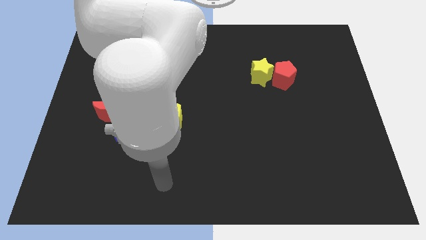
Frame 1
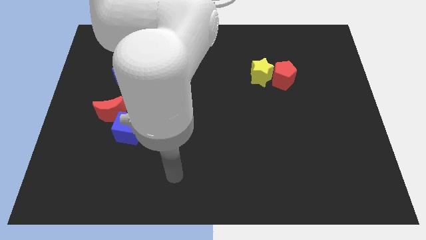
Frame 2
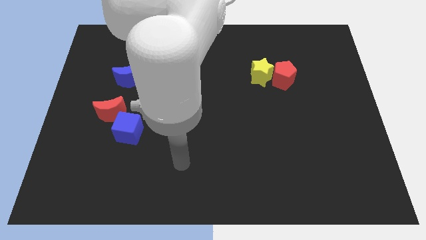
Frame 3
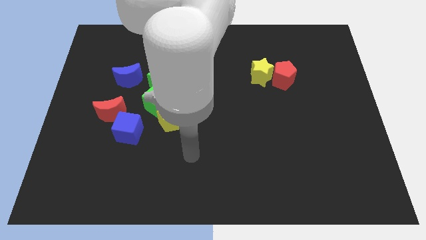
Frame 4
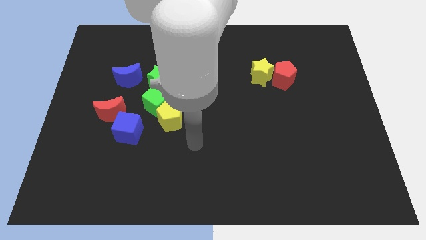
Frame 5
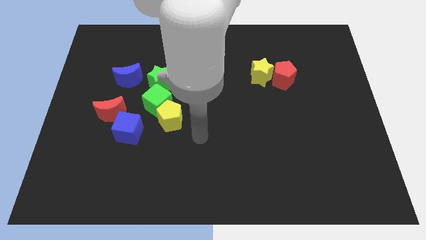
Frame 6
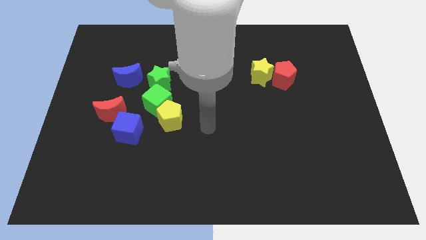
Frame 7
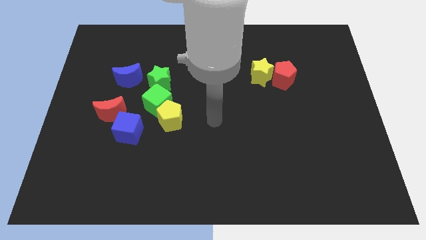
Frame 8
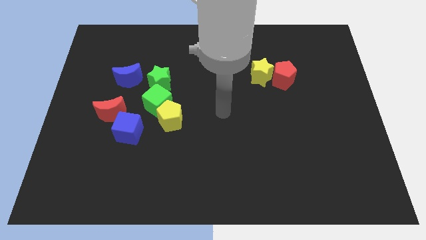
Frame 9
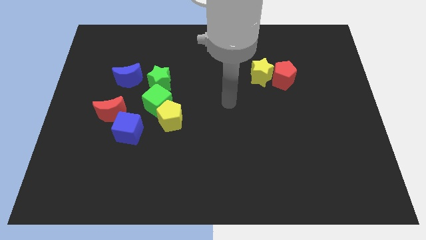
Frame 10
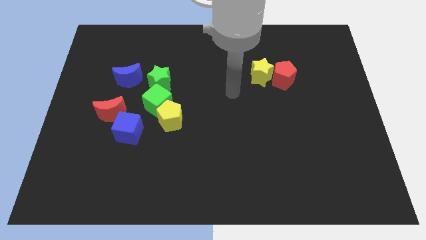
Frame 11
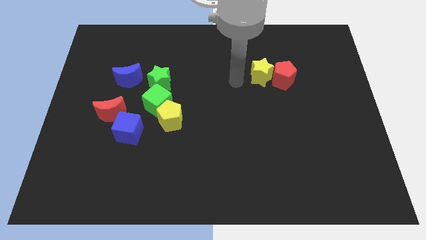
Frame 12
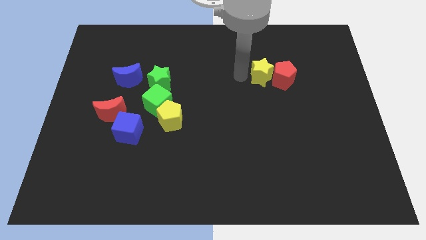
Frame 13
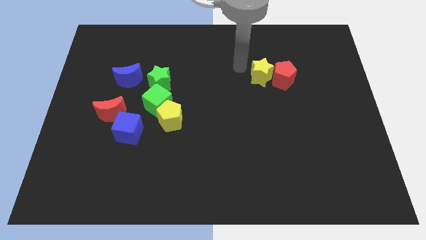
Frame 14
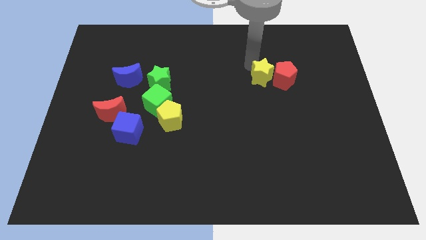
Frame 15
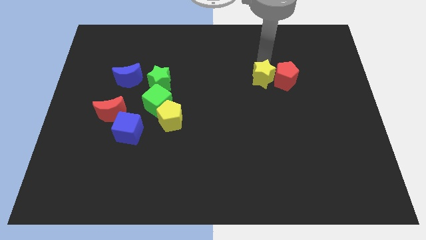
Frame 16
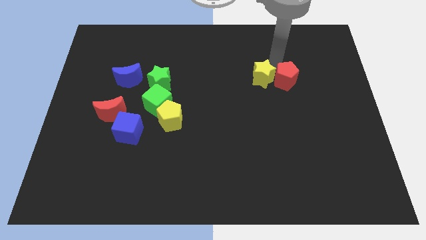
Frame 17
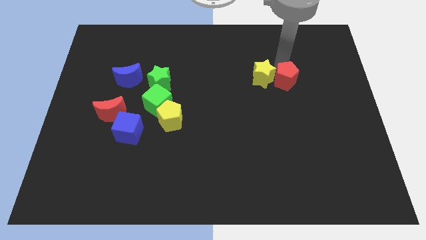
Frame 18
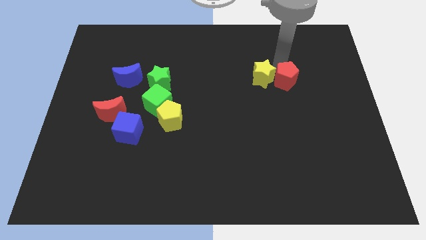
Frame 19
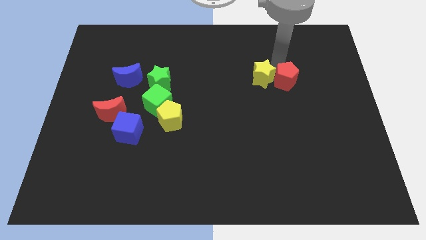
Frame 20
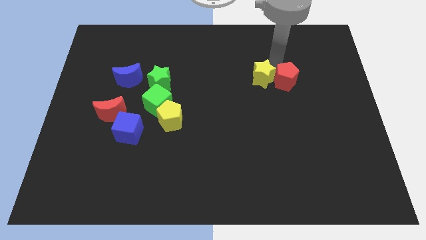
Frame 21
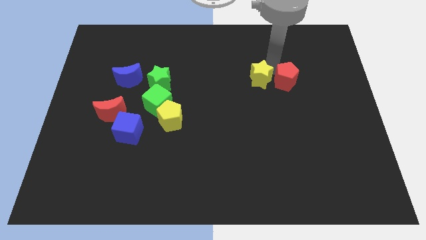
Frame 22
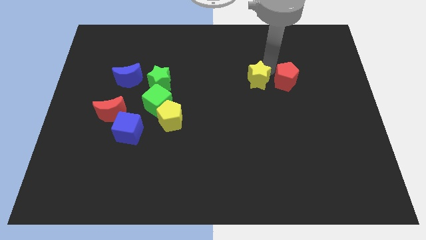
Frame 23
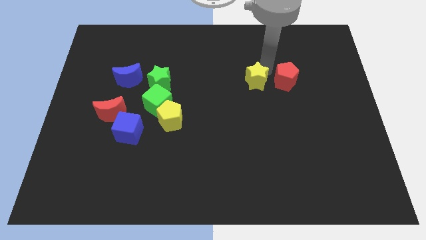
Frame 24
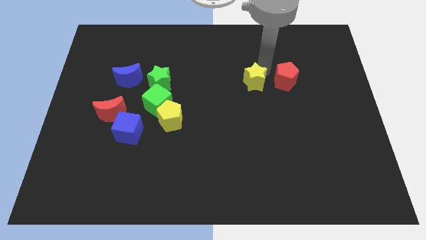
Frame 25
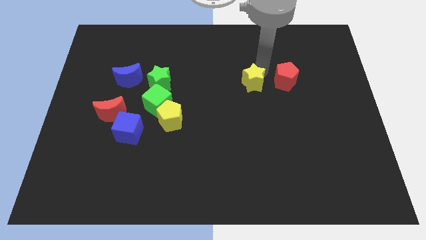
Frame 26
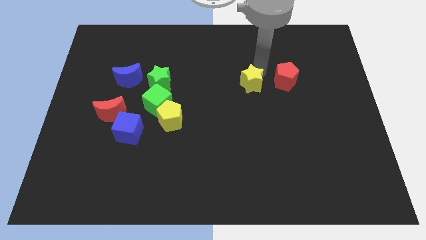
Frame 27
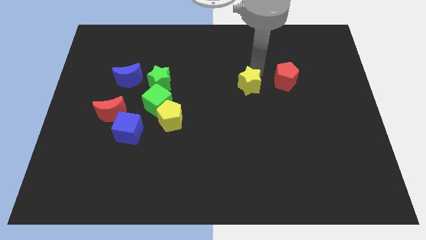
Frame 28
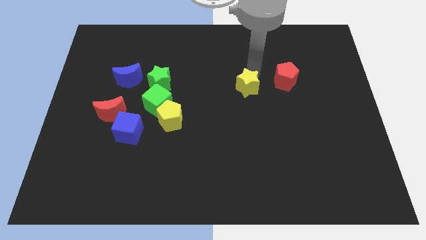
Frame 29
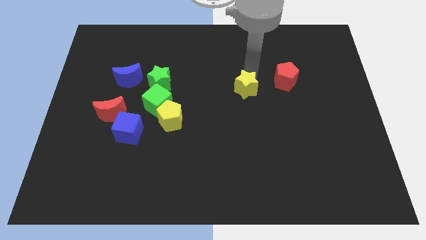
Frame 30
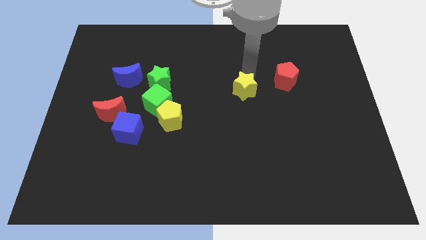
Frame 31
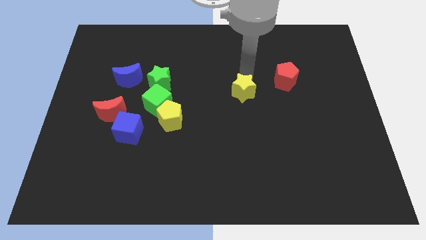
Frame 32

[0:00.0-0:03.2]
move the yellow star a little bit diagonally downwards and to the left

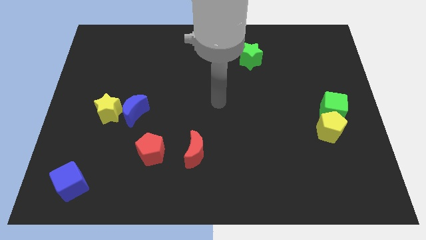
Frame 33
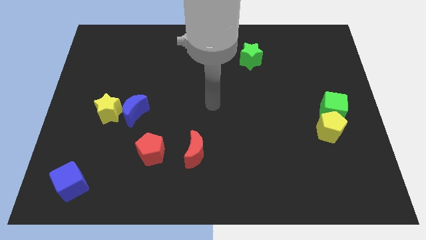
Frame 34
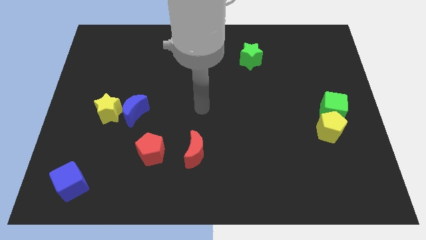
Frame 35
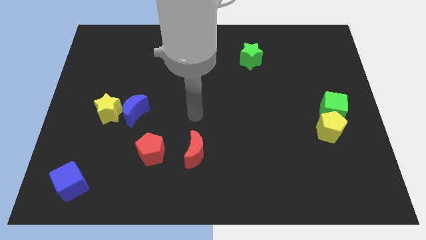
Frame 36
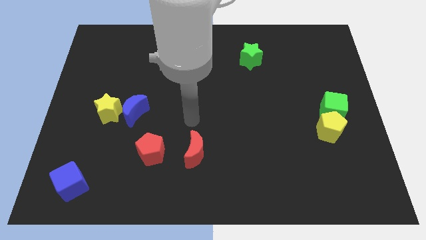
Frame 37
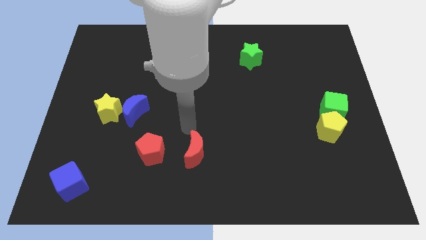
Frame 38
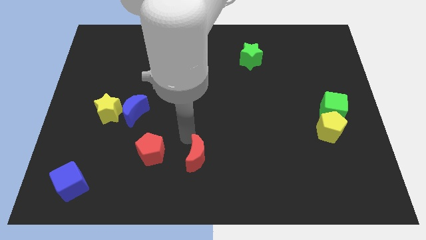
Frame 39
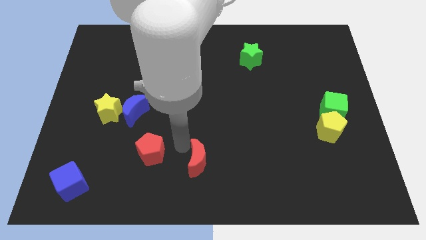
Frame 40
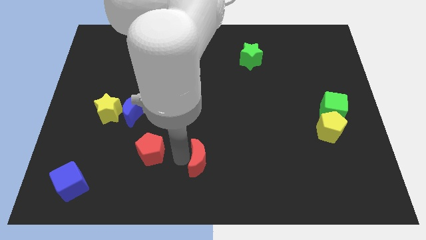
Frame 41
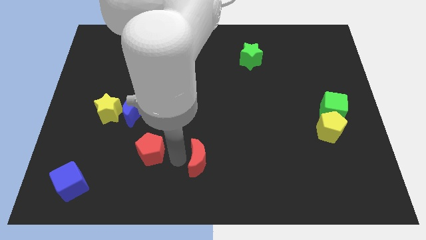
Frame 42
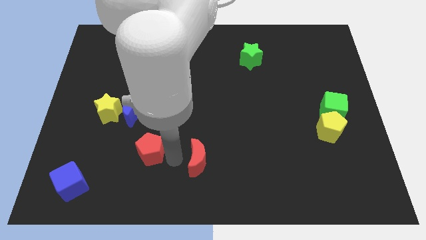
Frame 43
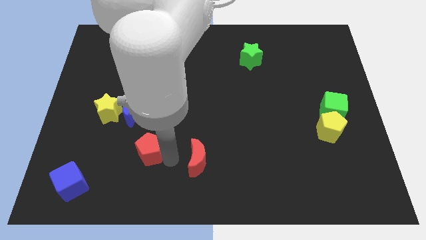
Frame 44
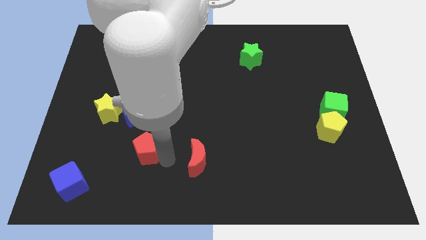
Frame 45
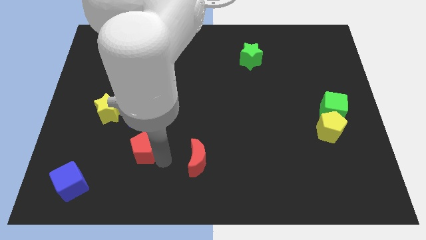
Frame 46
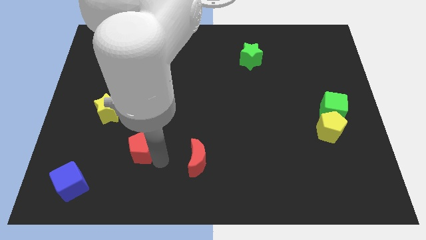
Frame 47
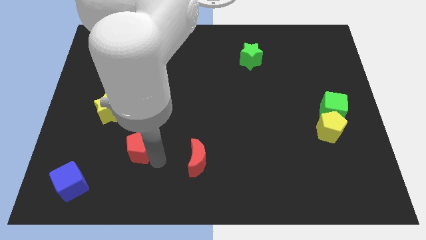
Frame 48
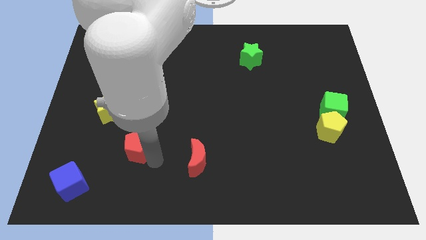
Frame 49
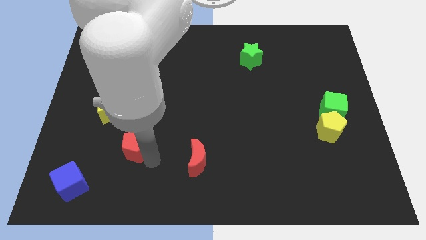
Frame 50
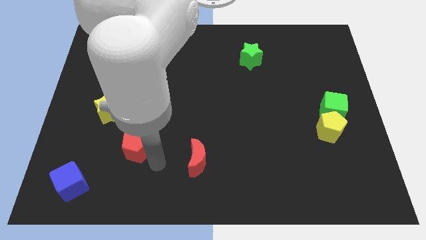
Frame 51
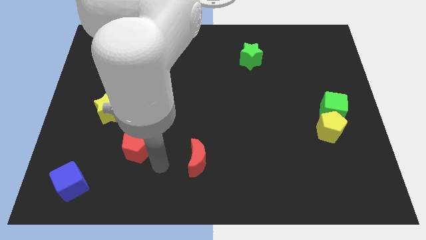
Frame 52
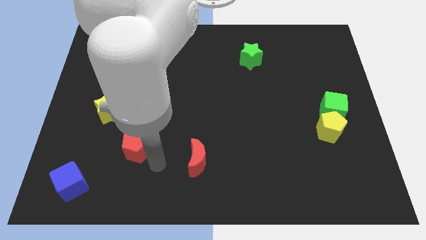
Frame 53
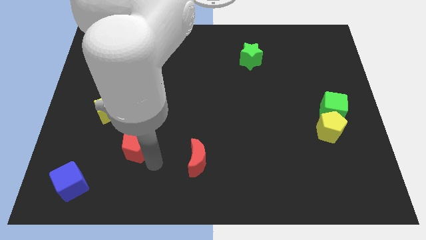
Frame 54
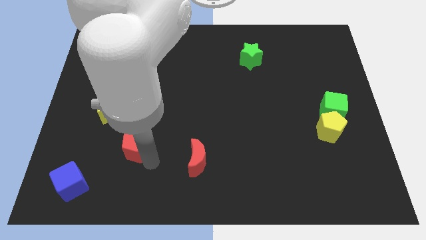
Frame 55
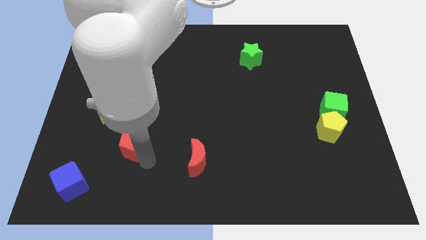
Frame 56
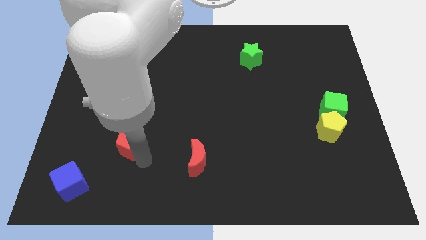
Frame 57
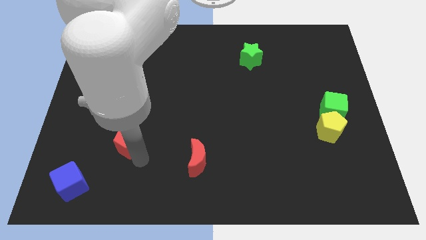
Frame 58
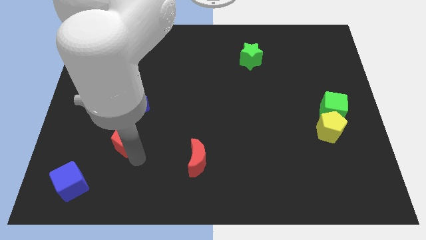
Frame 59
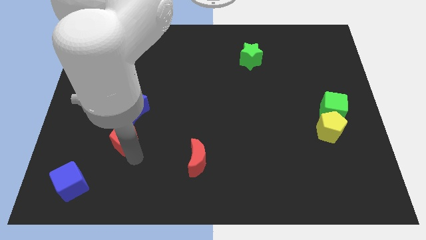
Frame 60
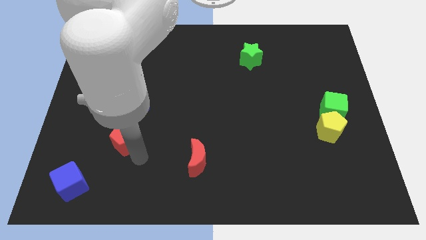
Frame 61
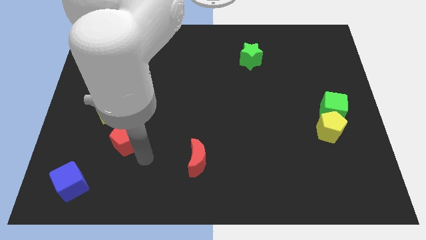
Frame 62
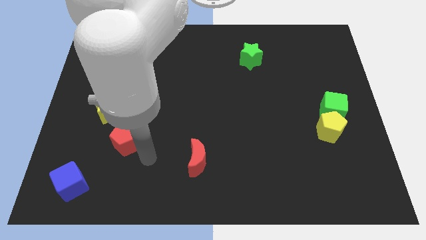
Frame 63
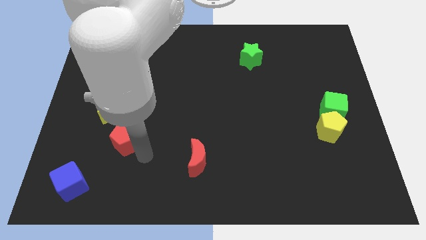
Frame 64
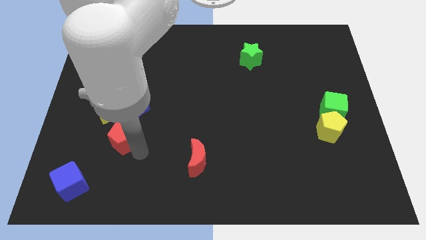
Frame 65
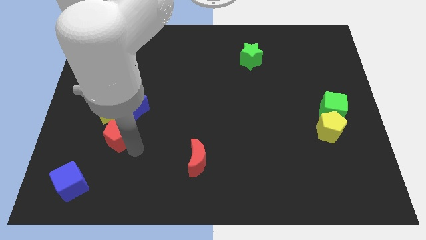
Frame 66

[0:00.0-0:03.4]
move the red pentagon a bit diagonally up and to the left

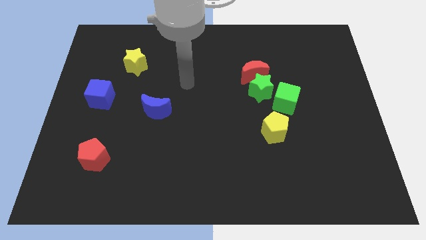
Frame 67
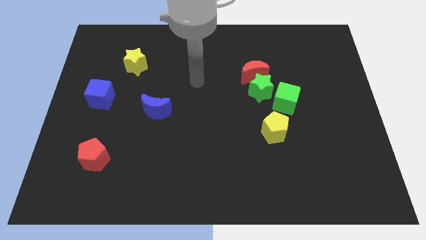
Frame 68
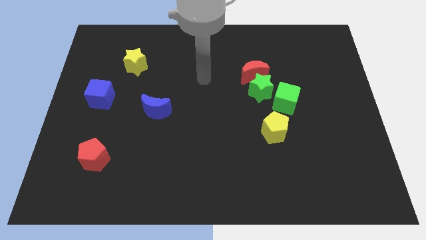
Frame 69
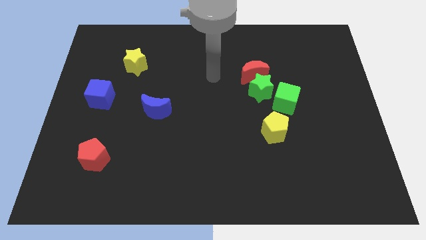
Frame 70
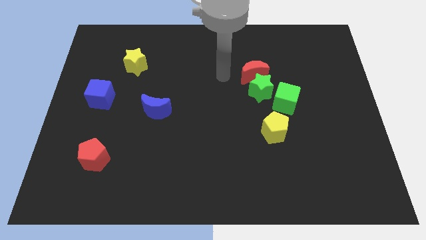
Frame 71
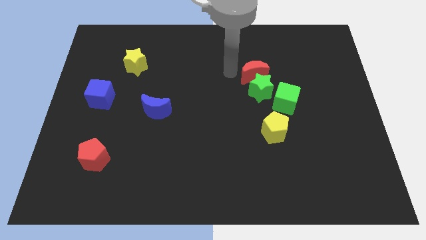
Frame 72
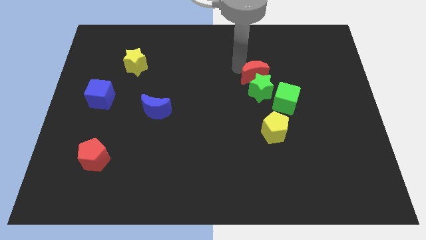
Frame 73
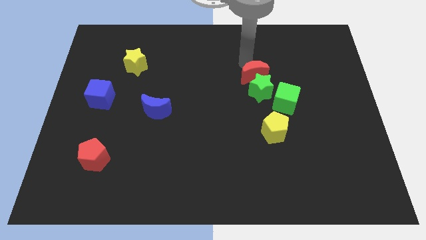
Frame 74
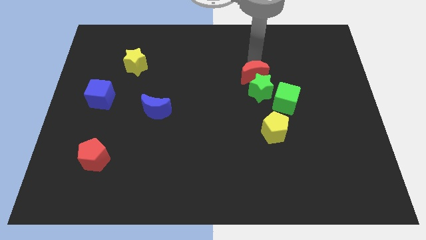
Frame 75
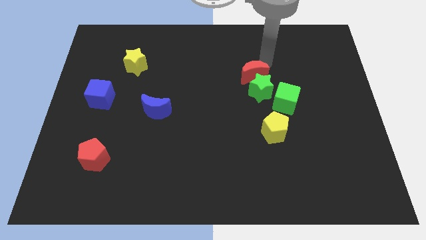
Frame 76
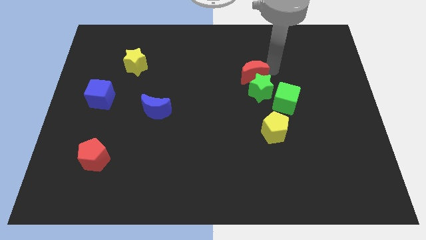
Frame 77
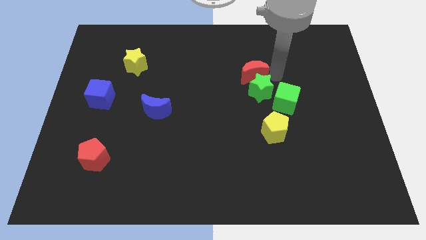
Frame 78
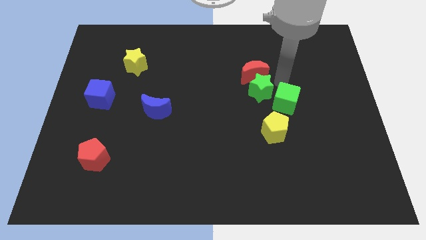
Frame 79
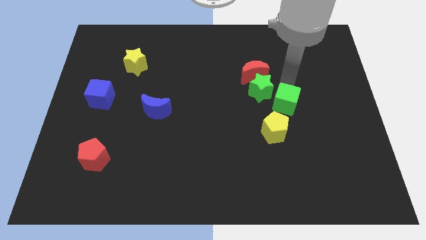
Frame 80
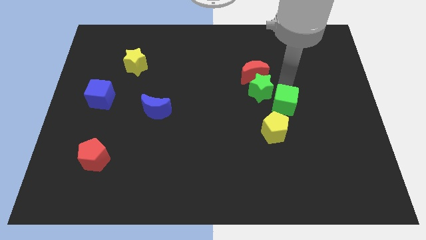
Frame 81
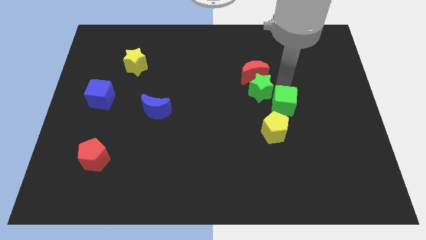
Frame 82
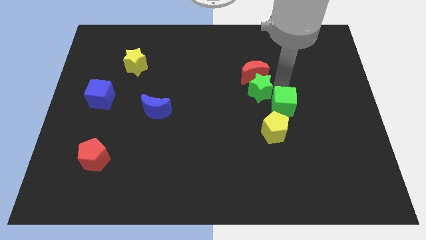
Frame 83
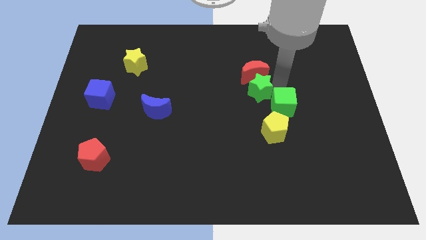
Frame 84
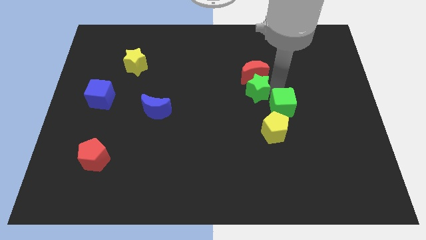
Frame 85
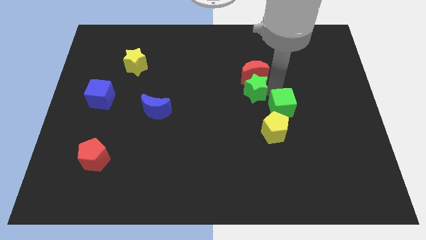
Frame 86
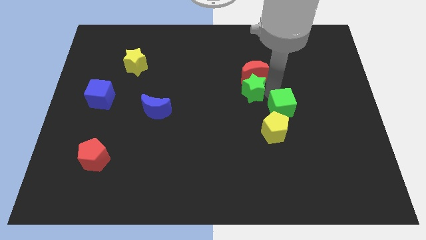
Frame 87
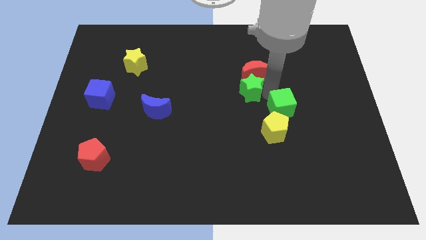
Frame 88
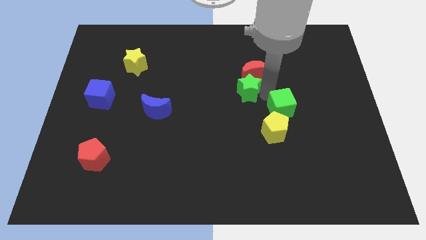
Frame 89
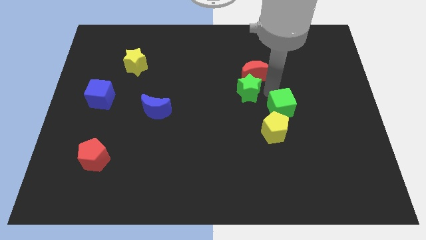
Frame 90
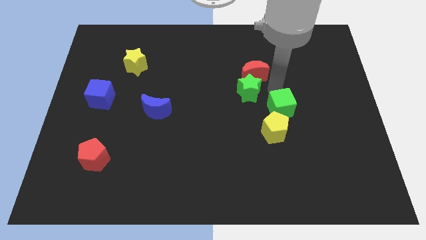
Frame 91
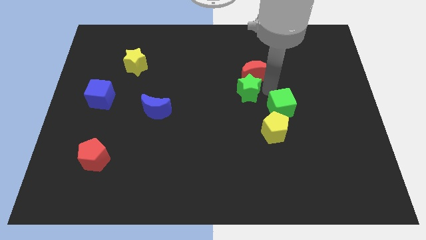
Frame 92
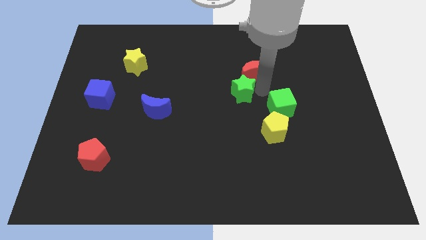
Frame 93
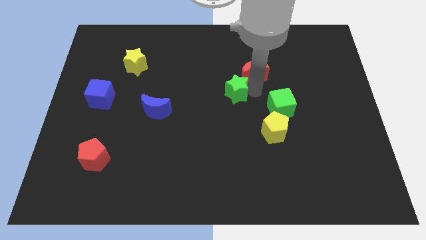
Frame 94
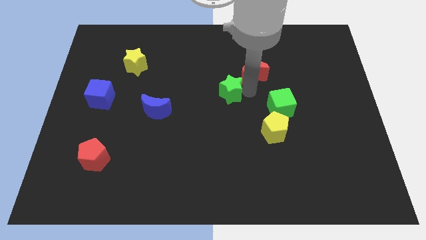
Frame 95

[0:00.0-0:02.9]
slightly push the green star left
